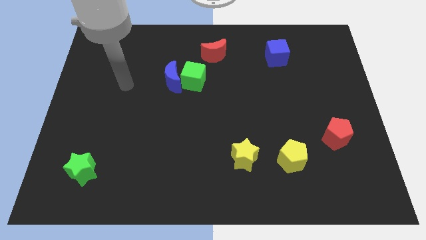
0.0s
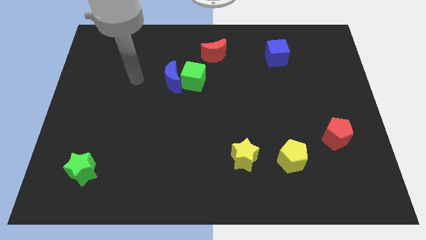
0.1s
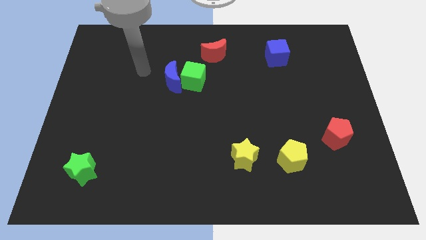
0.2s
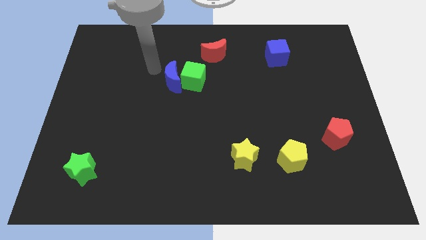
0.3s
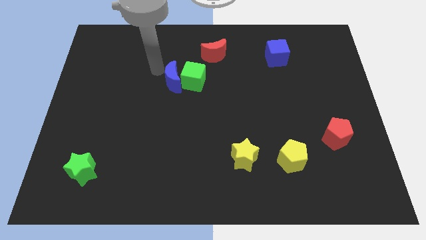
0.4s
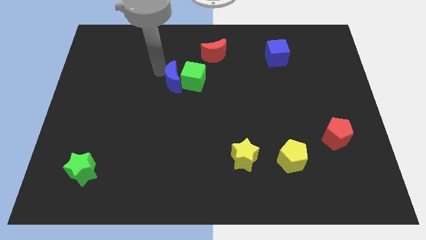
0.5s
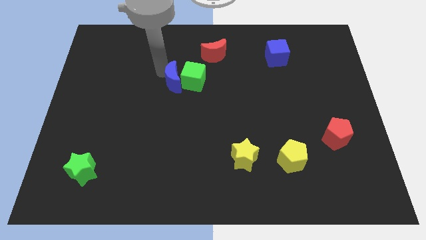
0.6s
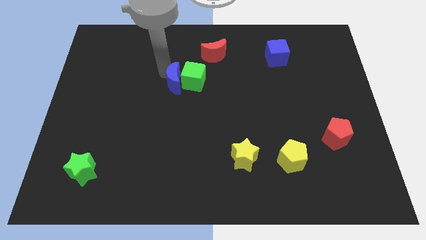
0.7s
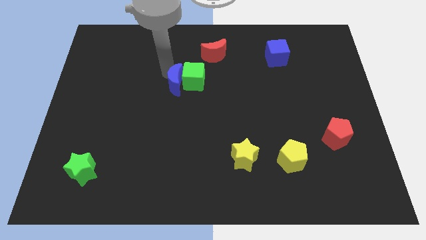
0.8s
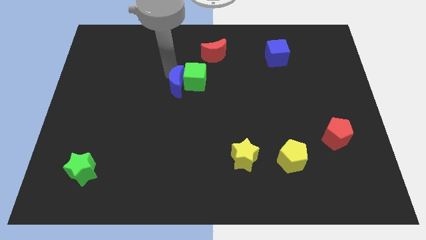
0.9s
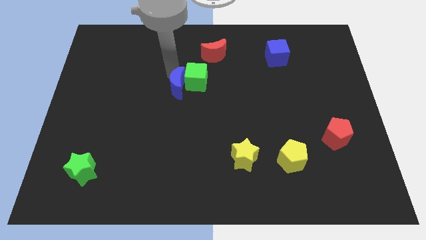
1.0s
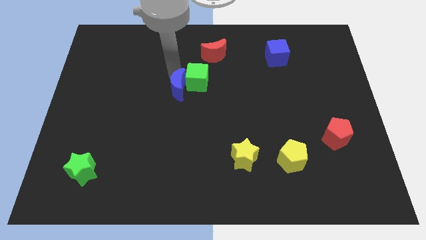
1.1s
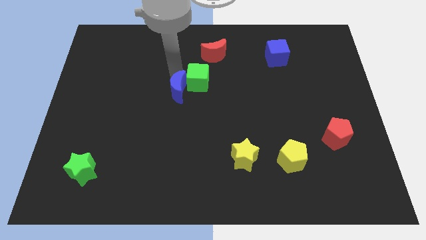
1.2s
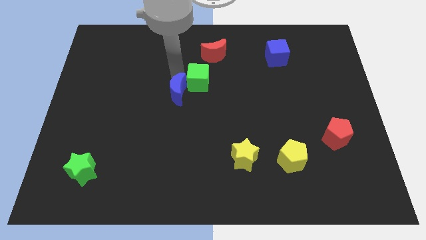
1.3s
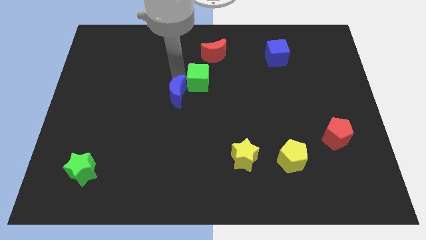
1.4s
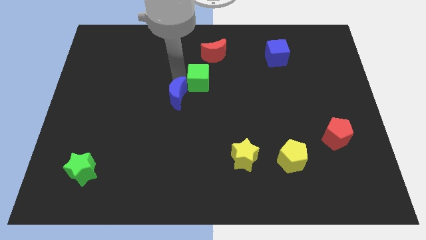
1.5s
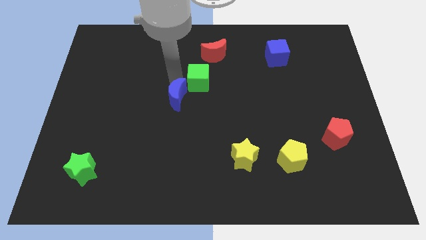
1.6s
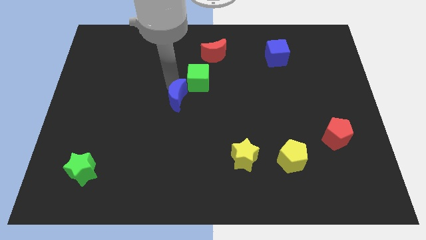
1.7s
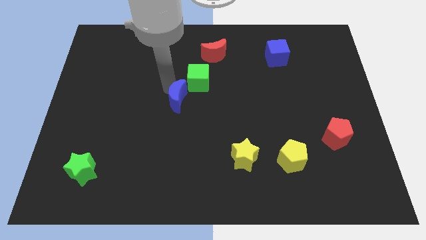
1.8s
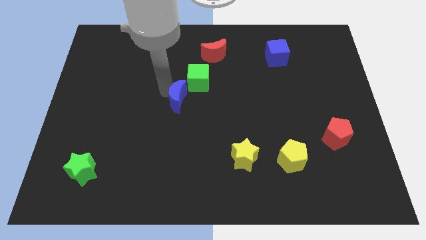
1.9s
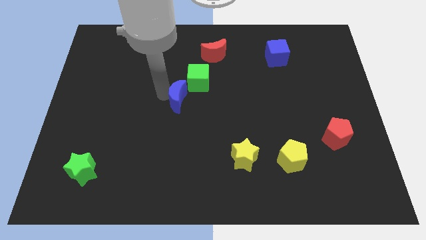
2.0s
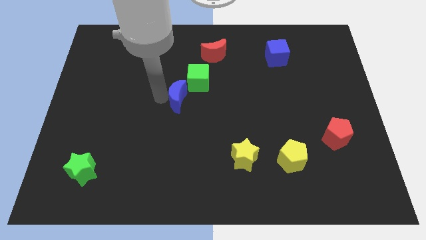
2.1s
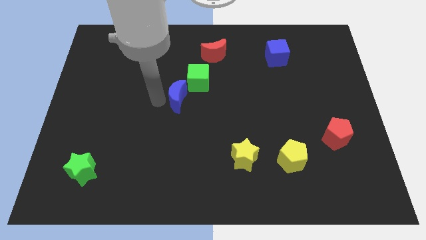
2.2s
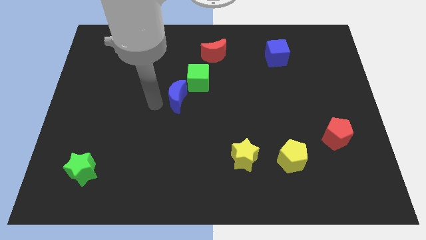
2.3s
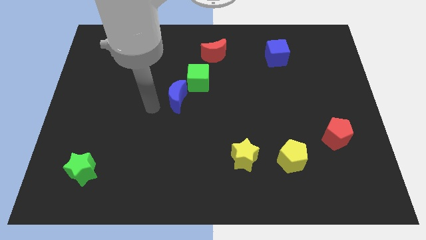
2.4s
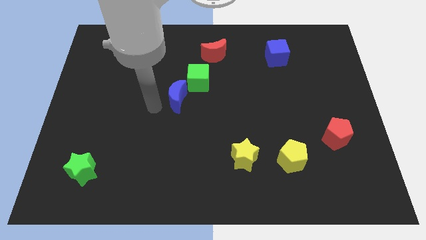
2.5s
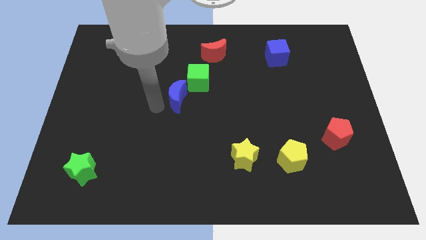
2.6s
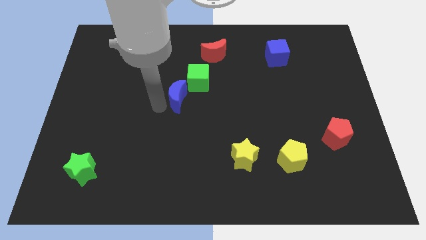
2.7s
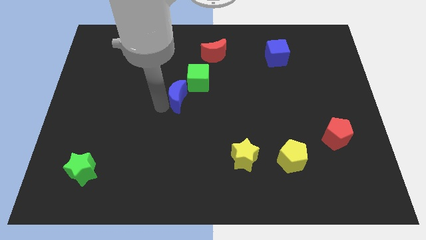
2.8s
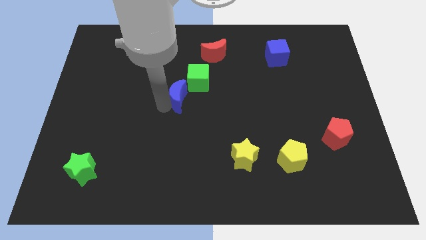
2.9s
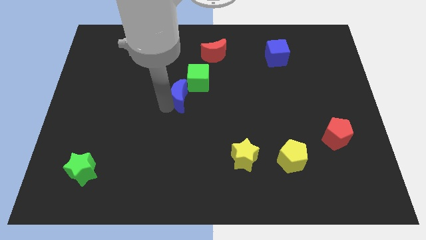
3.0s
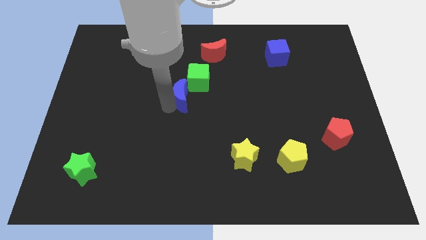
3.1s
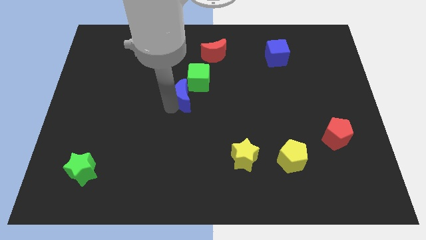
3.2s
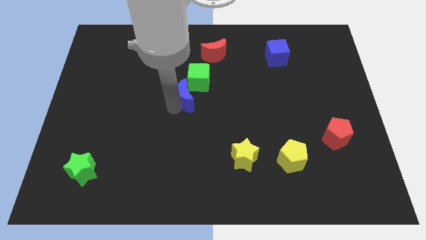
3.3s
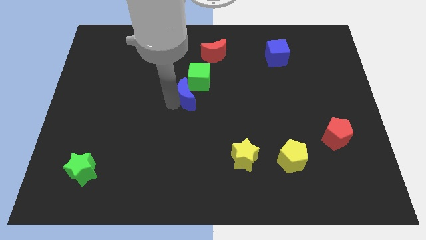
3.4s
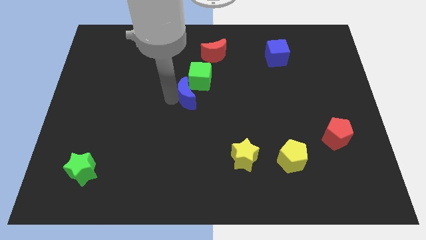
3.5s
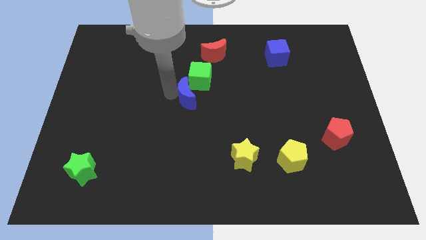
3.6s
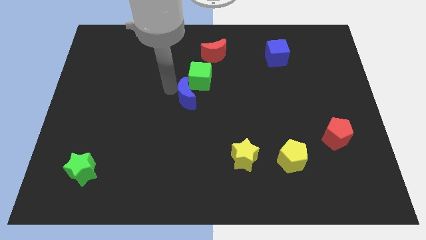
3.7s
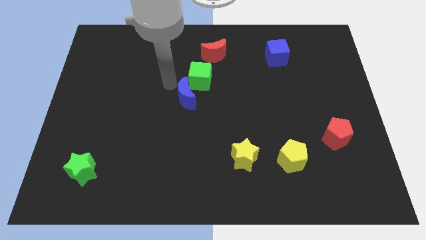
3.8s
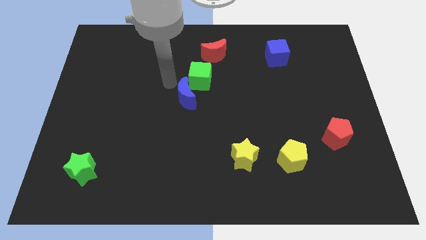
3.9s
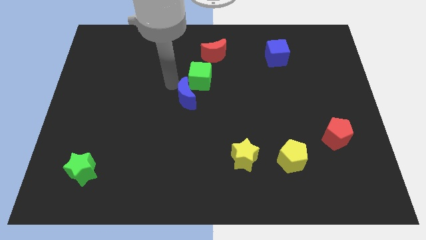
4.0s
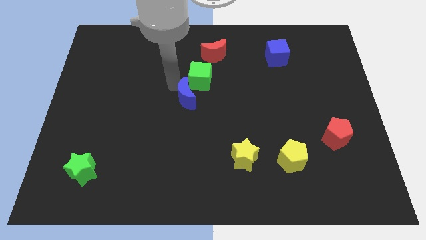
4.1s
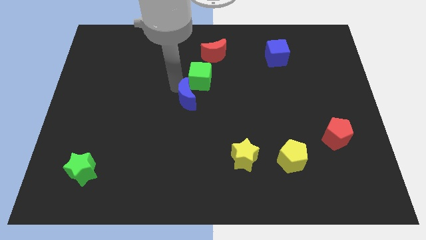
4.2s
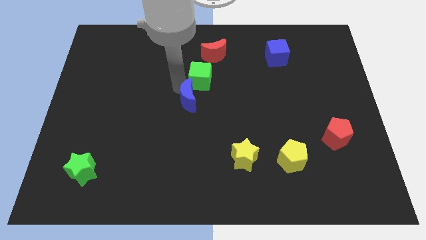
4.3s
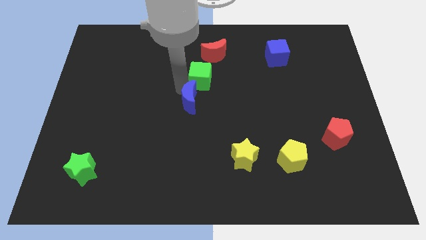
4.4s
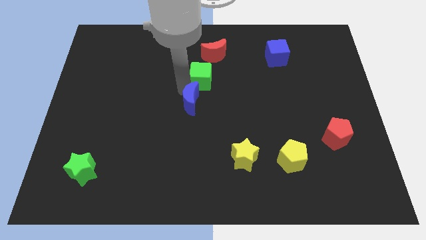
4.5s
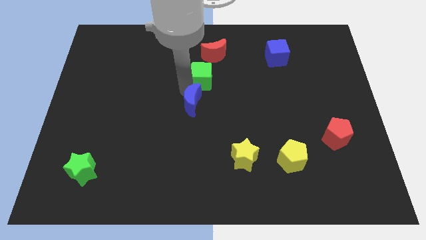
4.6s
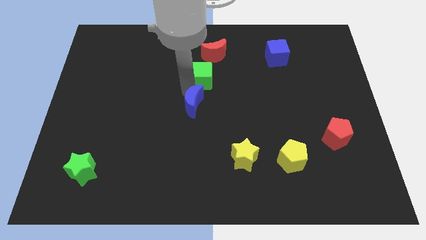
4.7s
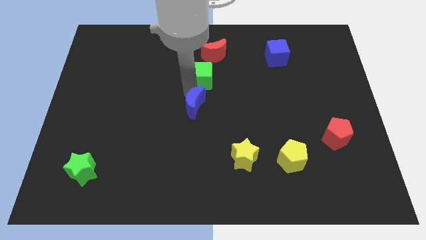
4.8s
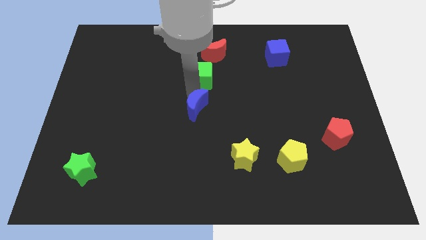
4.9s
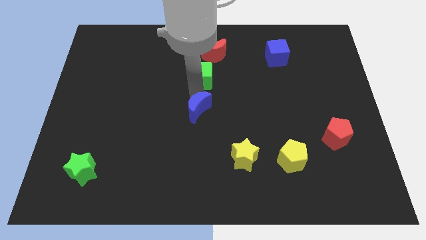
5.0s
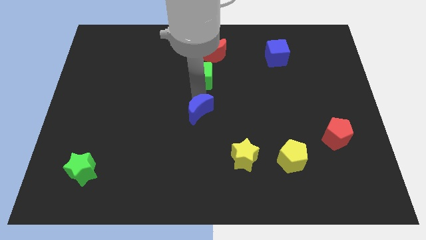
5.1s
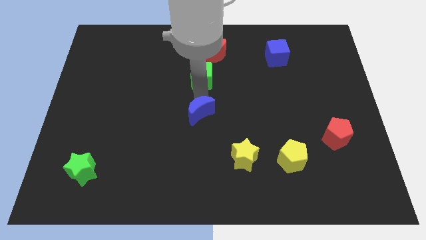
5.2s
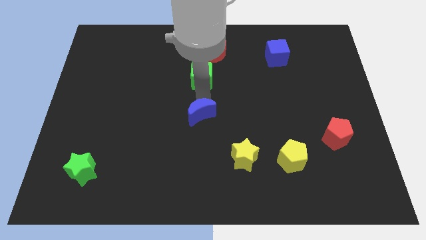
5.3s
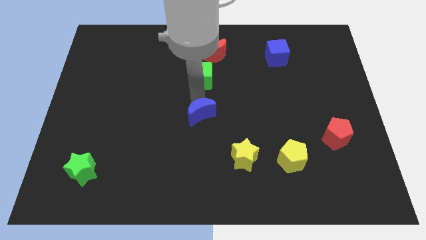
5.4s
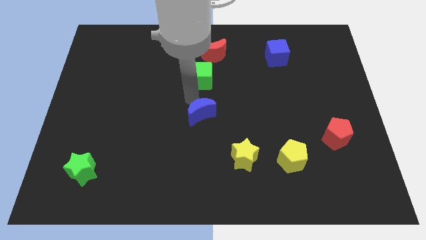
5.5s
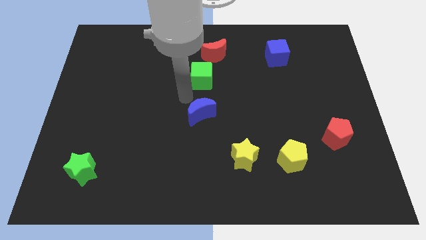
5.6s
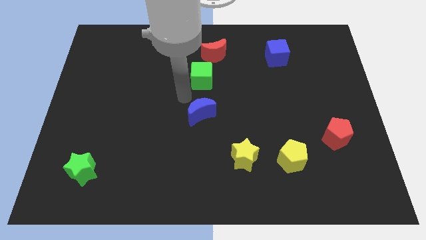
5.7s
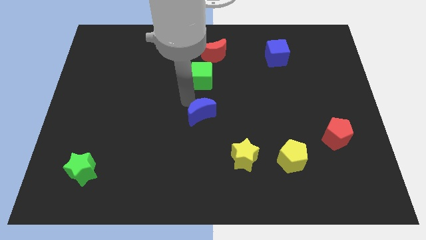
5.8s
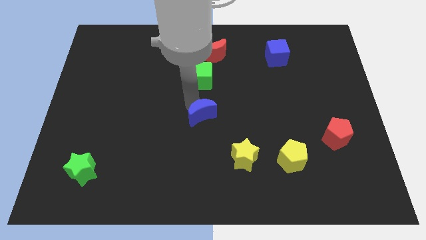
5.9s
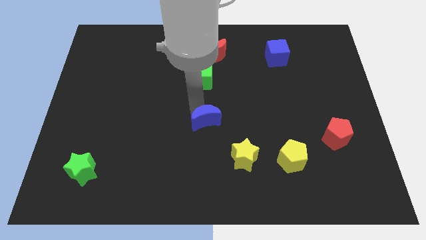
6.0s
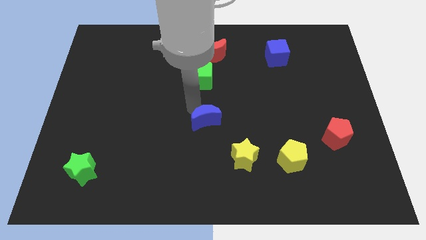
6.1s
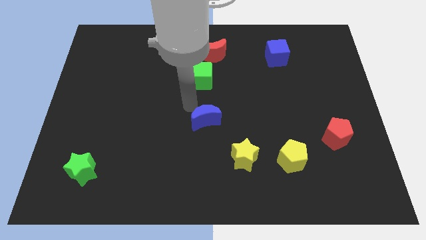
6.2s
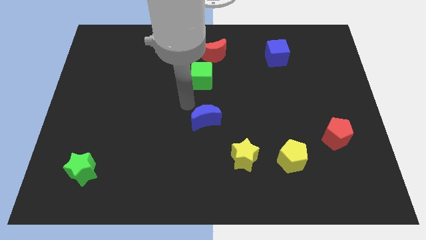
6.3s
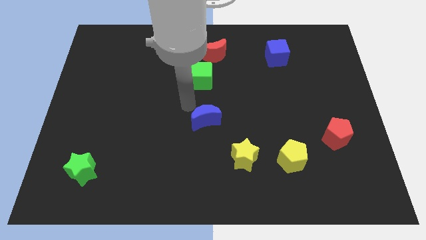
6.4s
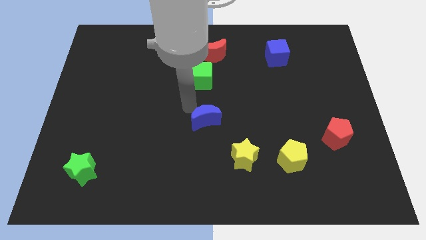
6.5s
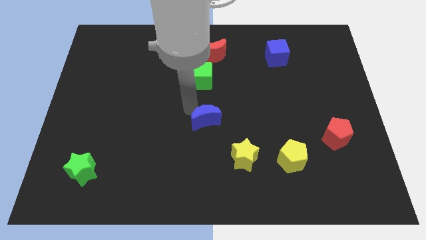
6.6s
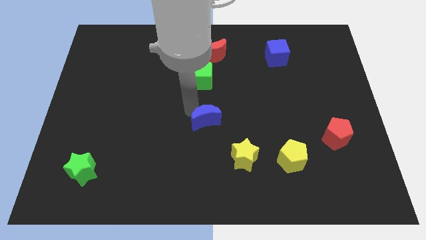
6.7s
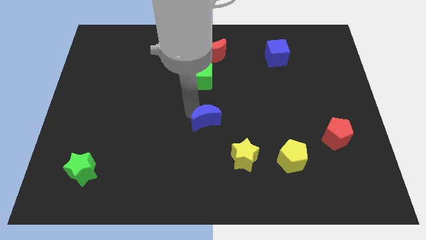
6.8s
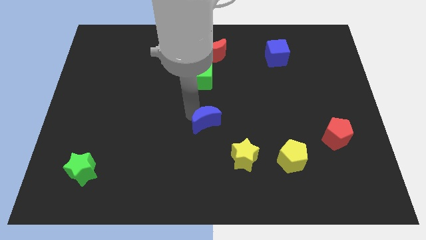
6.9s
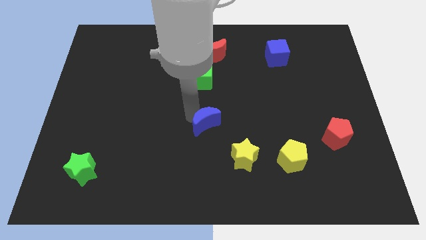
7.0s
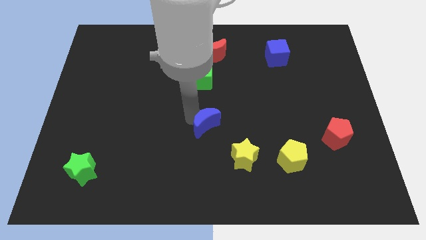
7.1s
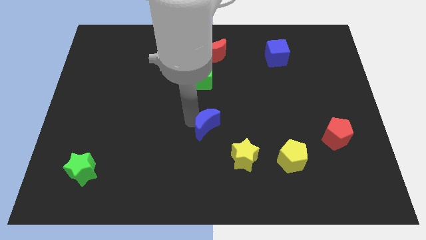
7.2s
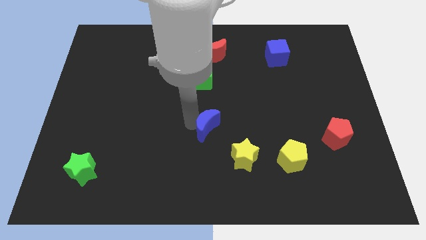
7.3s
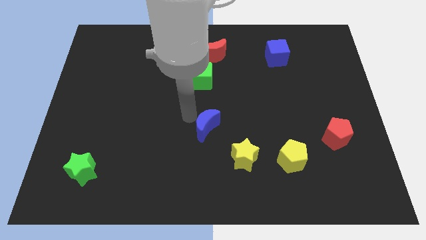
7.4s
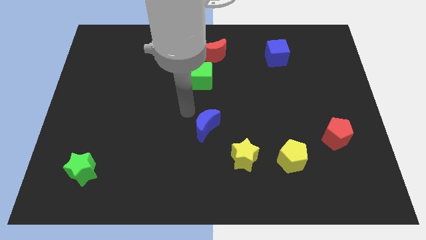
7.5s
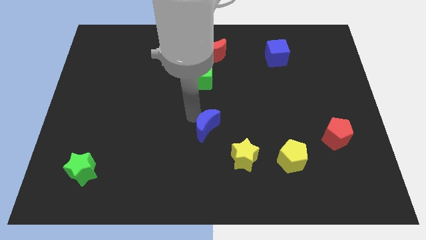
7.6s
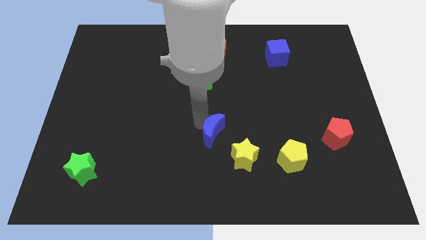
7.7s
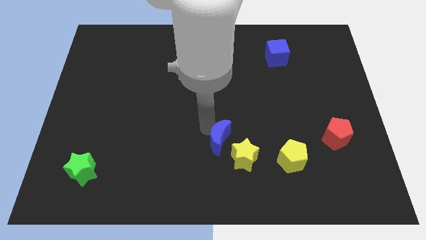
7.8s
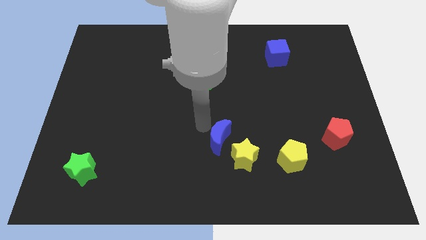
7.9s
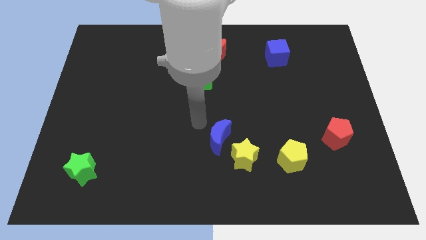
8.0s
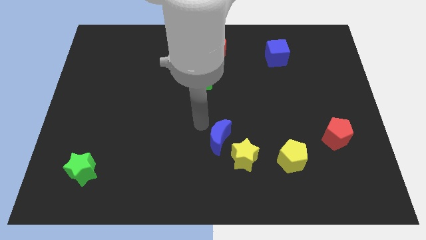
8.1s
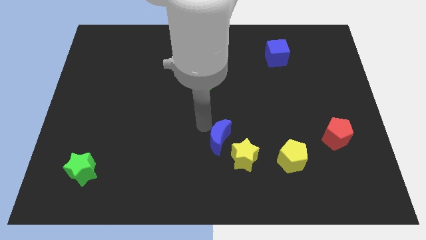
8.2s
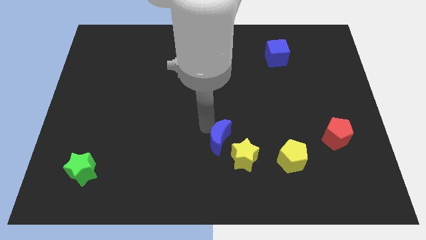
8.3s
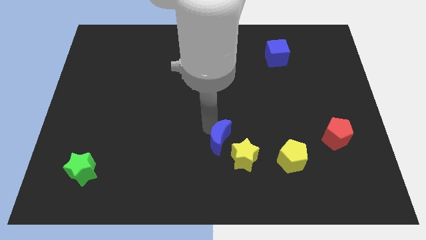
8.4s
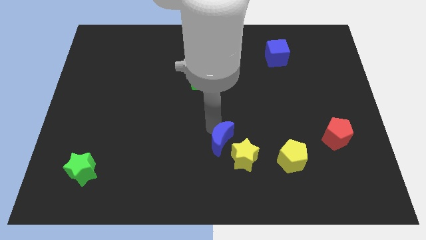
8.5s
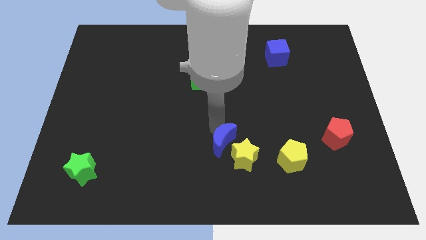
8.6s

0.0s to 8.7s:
slide the blue moon to the yellow star

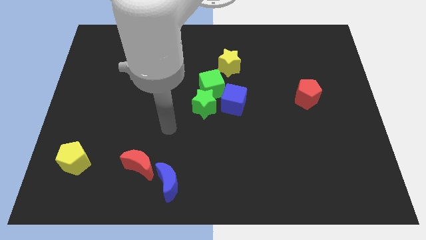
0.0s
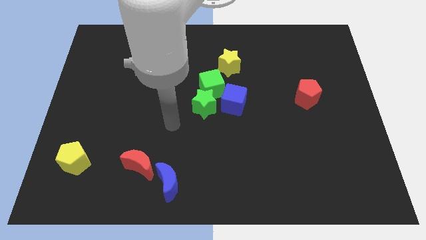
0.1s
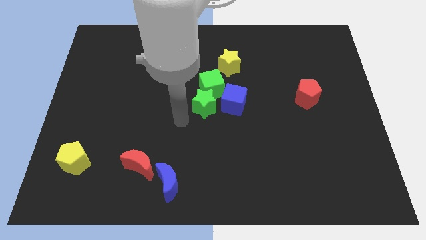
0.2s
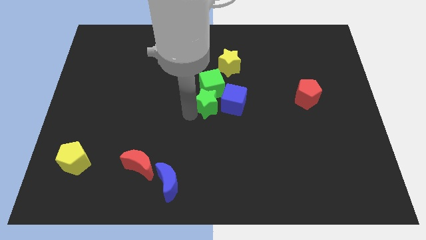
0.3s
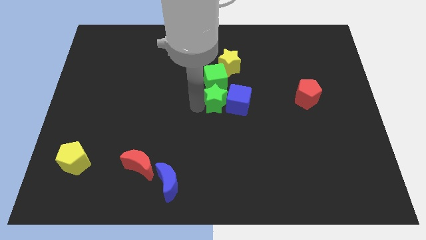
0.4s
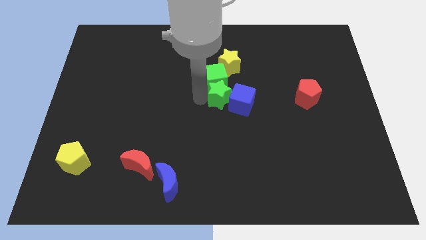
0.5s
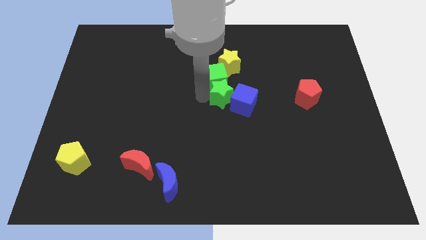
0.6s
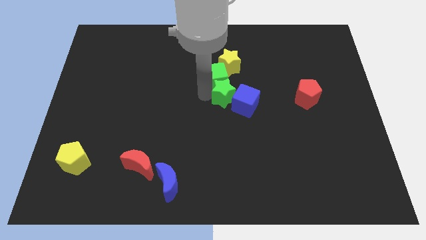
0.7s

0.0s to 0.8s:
put the green cube close to the yellow star
